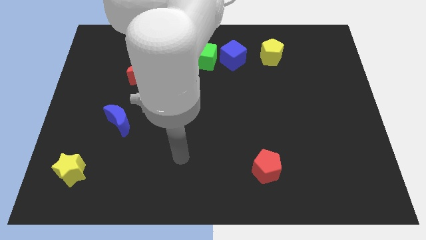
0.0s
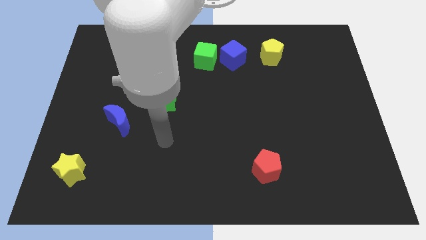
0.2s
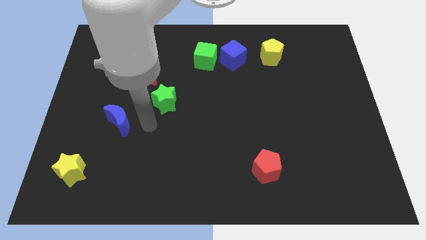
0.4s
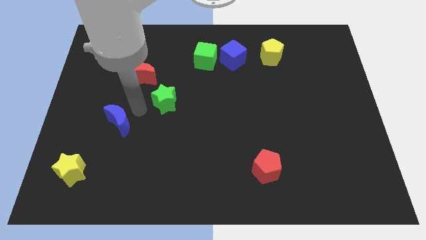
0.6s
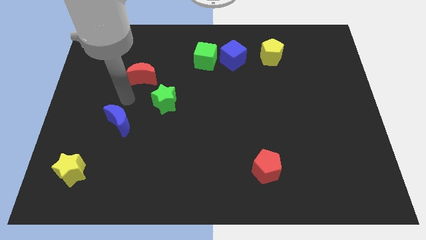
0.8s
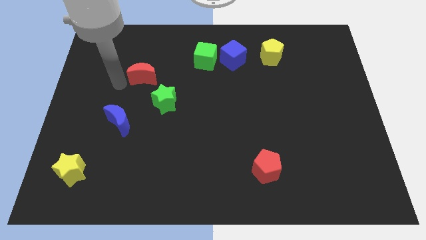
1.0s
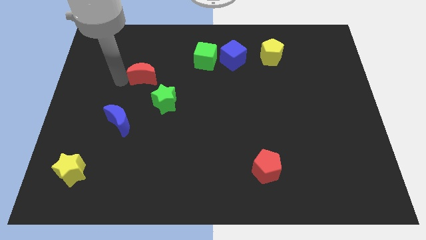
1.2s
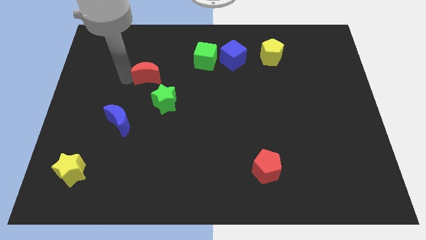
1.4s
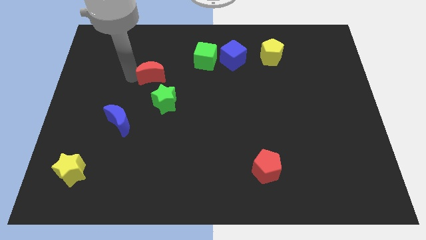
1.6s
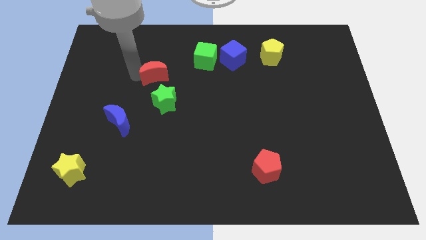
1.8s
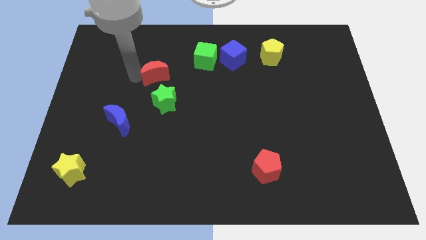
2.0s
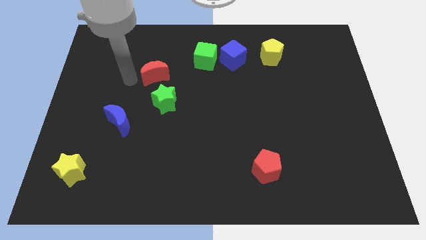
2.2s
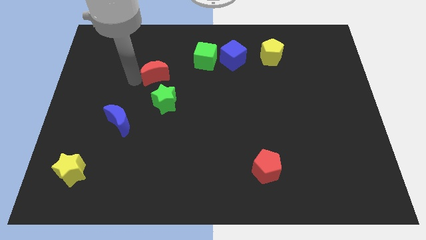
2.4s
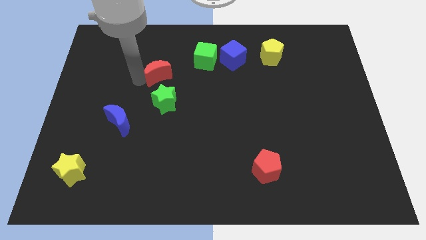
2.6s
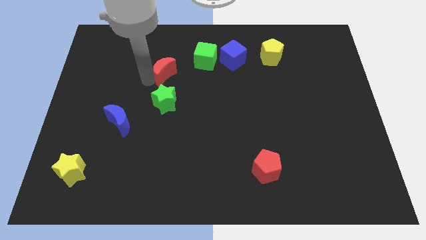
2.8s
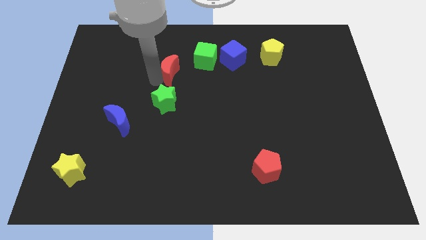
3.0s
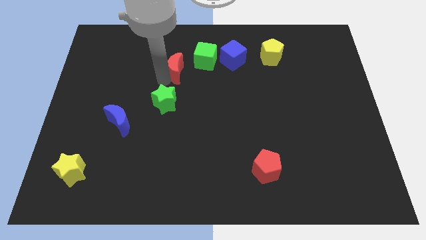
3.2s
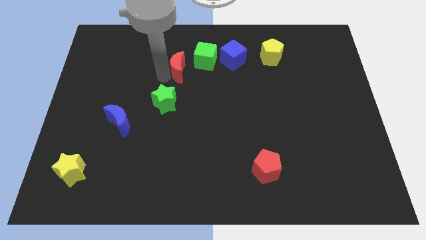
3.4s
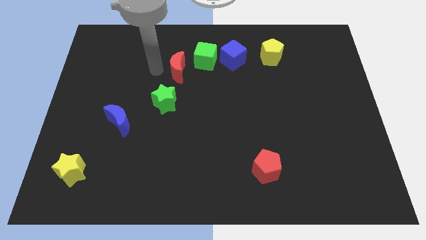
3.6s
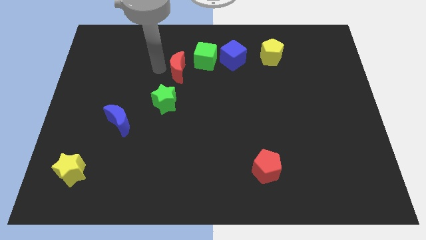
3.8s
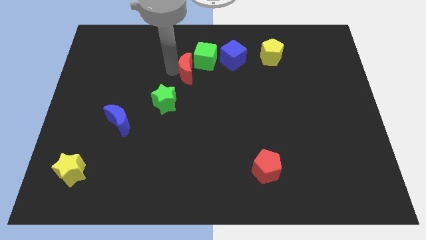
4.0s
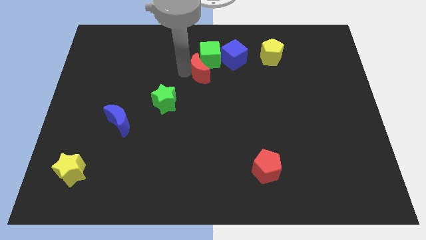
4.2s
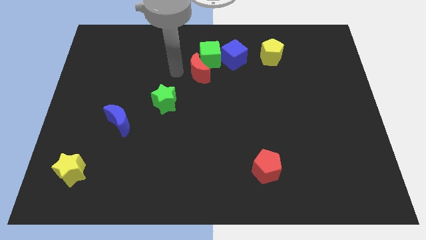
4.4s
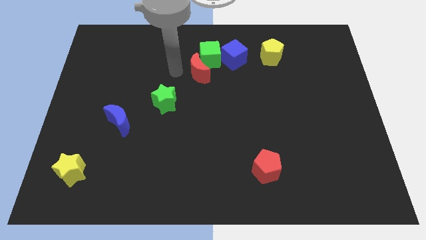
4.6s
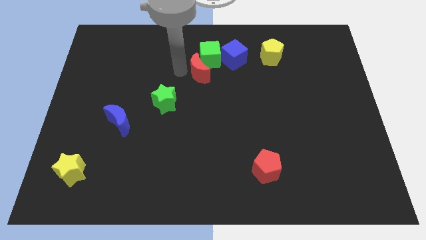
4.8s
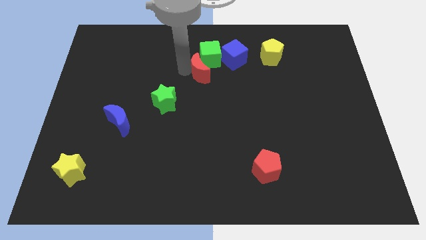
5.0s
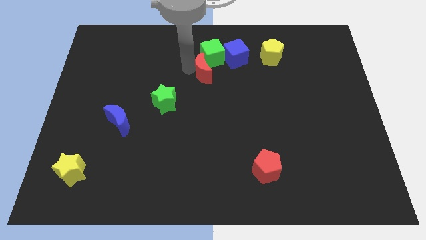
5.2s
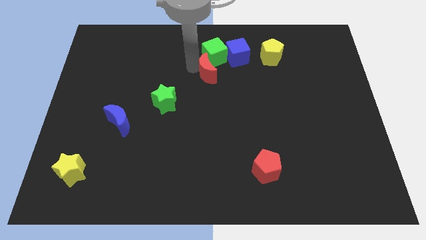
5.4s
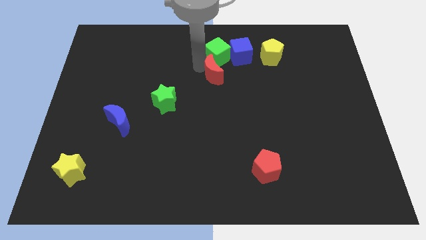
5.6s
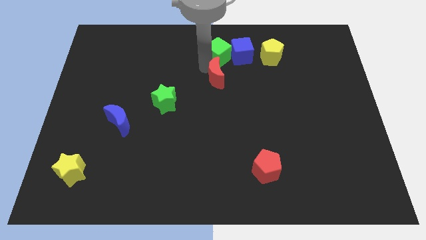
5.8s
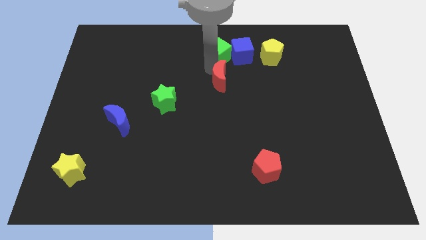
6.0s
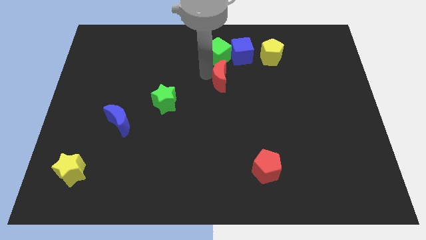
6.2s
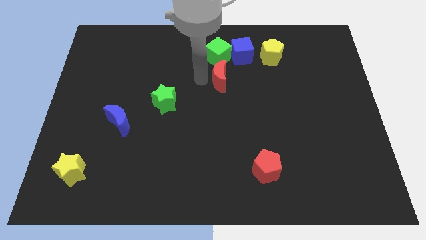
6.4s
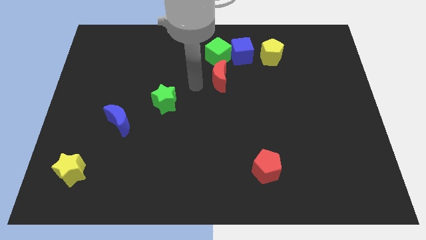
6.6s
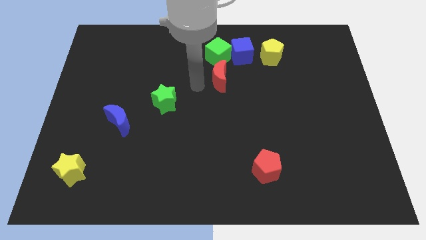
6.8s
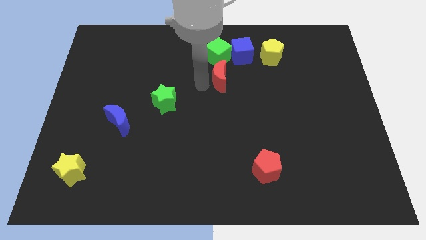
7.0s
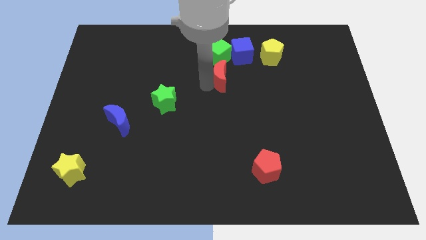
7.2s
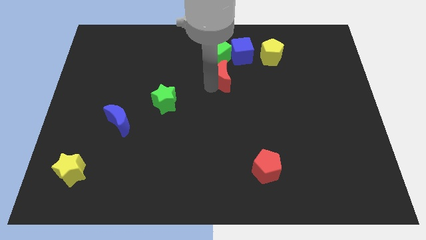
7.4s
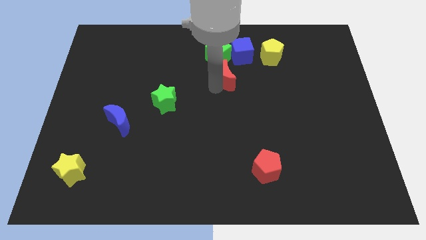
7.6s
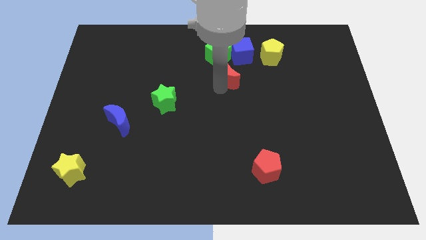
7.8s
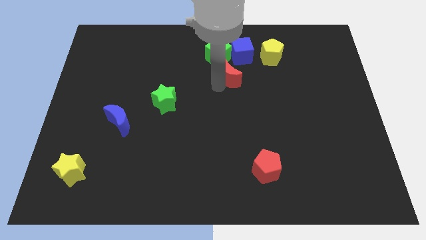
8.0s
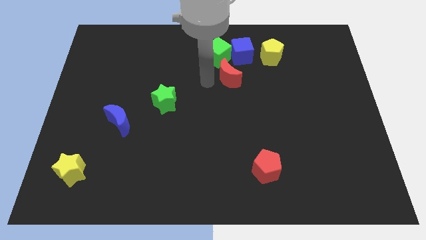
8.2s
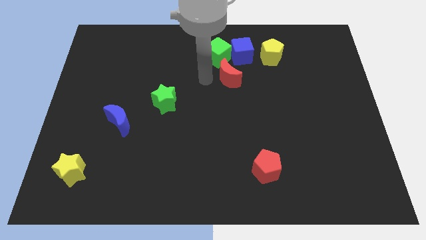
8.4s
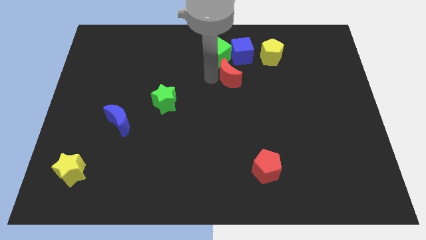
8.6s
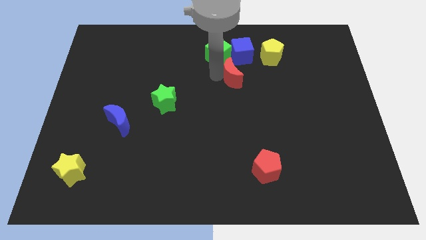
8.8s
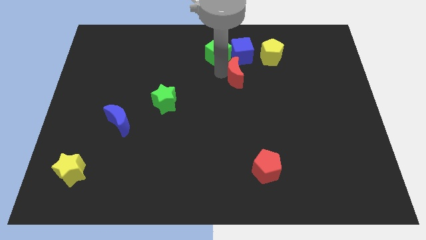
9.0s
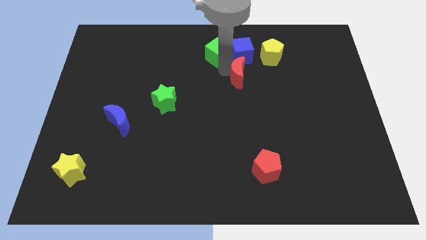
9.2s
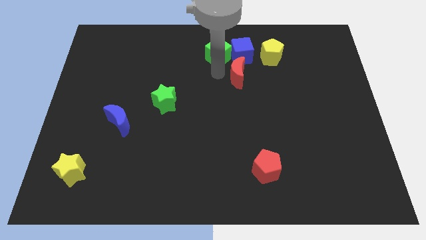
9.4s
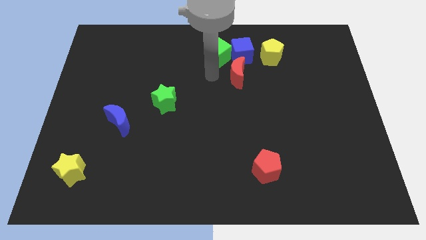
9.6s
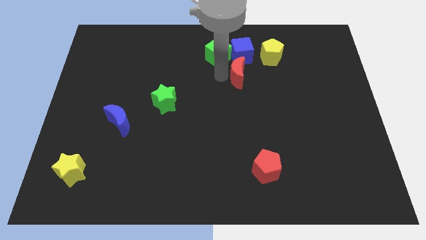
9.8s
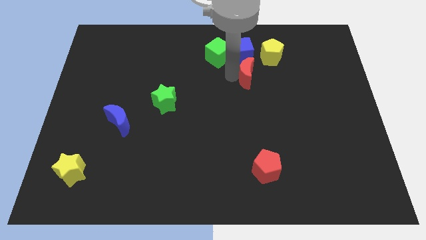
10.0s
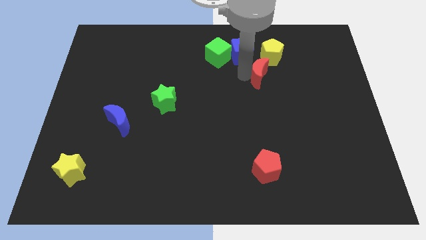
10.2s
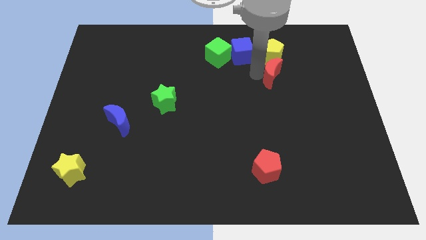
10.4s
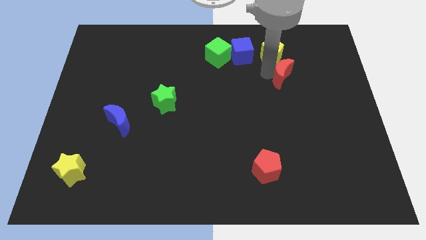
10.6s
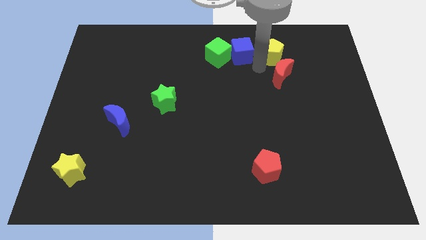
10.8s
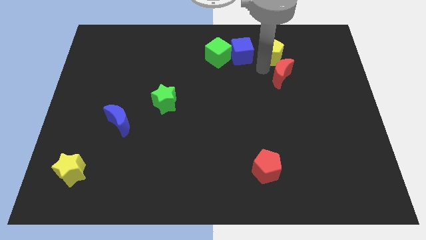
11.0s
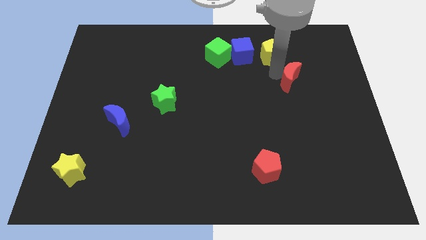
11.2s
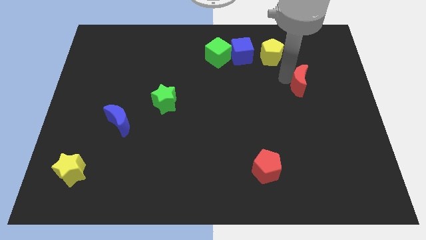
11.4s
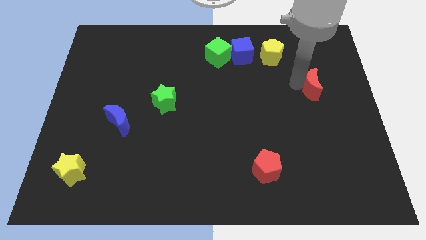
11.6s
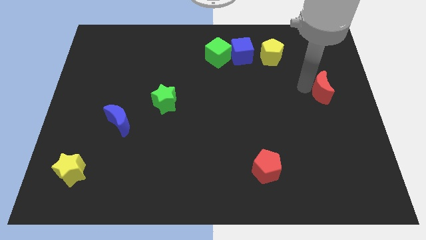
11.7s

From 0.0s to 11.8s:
put the red moon to the center right
